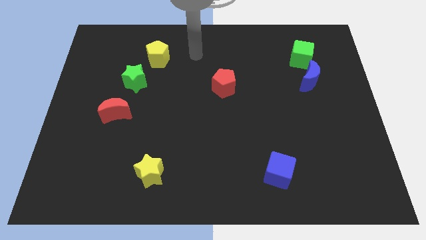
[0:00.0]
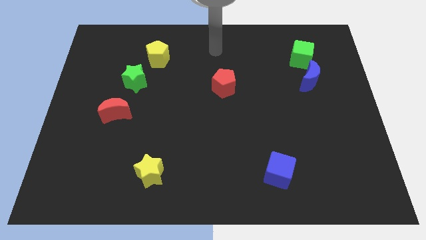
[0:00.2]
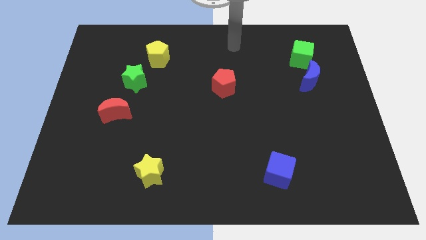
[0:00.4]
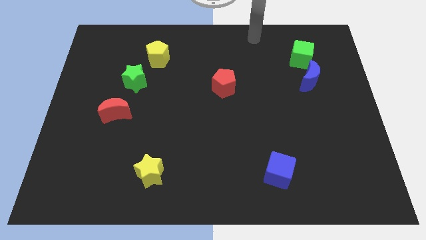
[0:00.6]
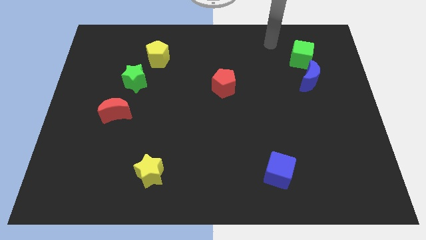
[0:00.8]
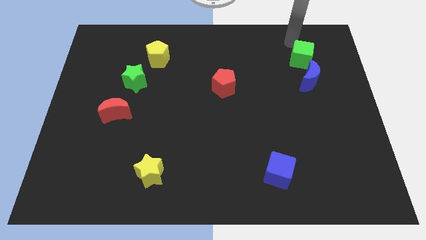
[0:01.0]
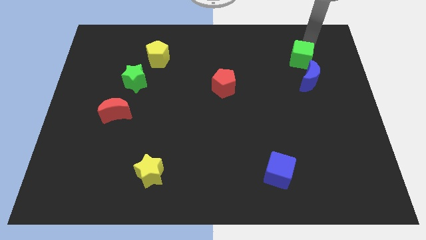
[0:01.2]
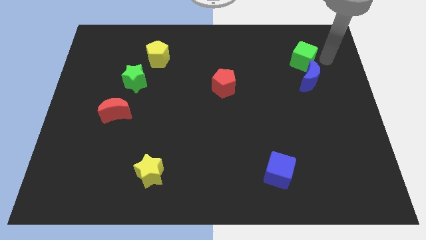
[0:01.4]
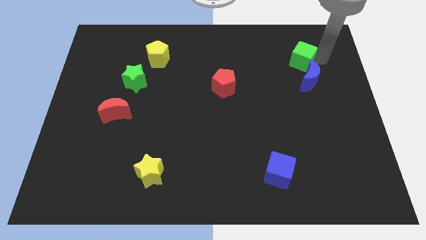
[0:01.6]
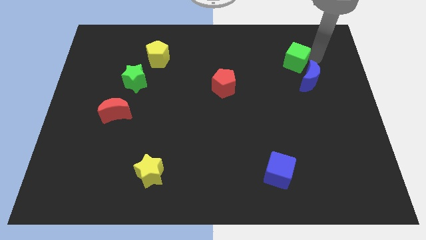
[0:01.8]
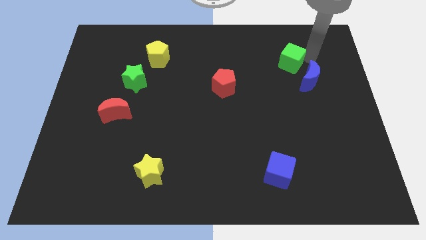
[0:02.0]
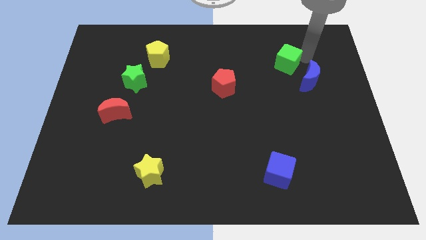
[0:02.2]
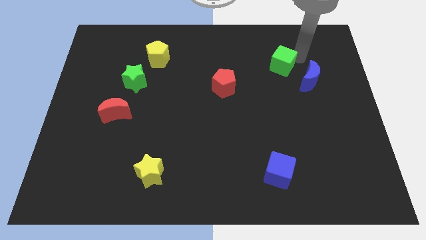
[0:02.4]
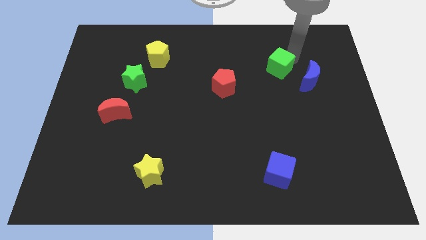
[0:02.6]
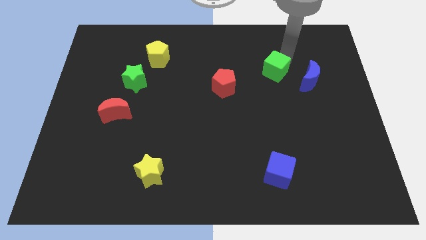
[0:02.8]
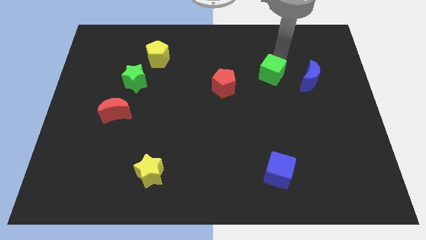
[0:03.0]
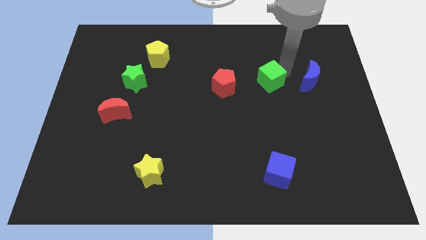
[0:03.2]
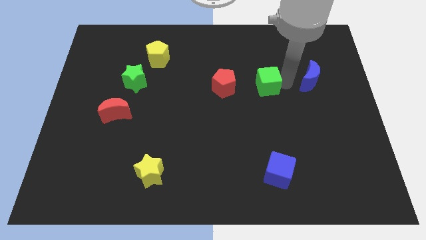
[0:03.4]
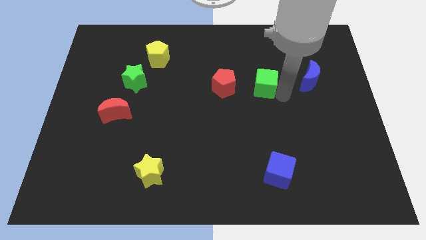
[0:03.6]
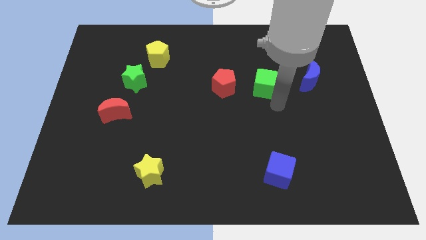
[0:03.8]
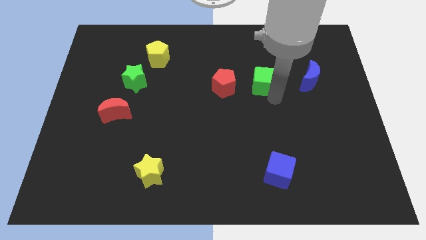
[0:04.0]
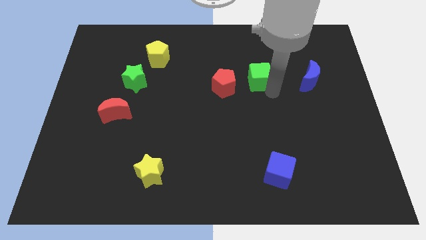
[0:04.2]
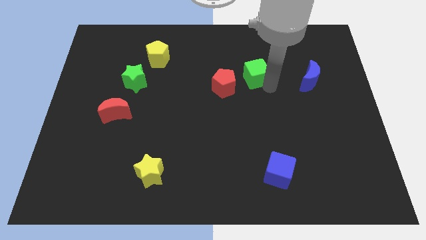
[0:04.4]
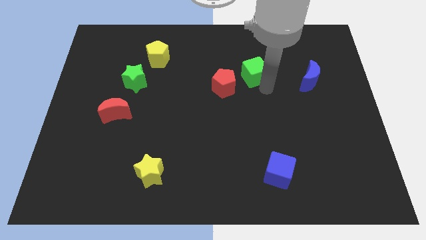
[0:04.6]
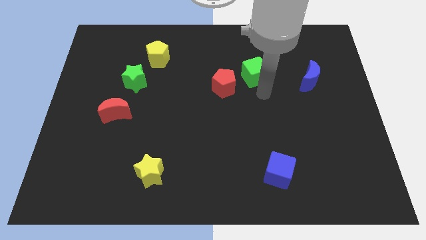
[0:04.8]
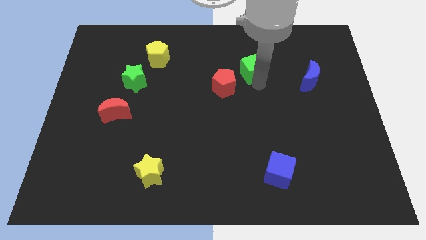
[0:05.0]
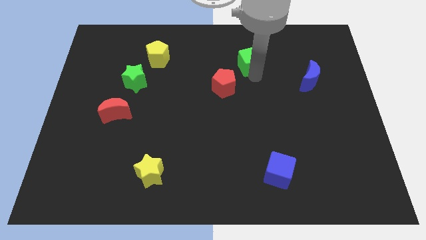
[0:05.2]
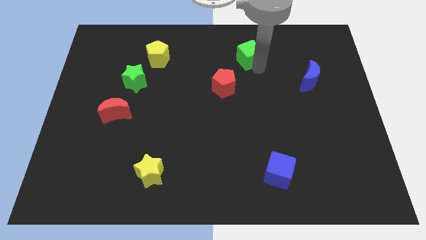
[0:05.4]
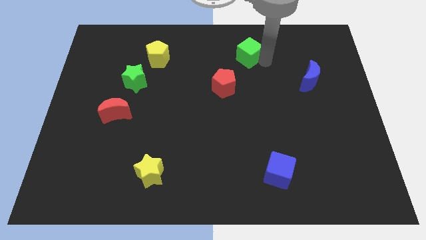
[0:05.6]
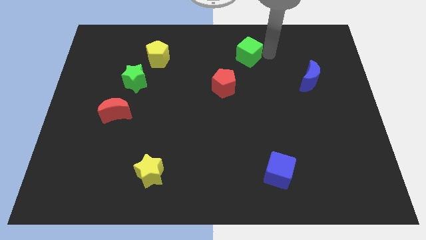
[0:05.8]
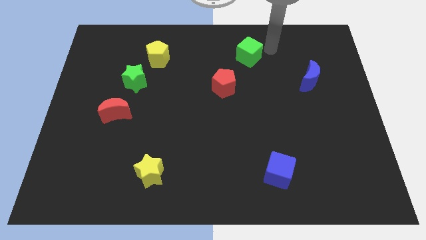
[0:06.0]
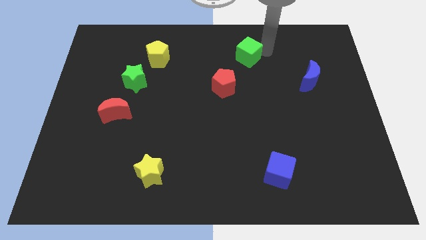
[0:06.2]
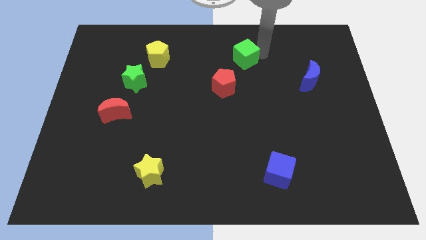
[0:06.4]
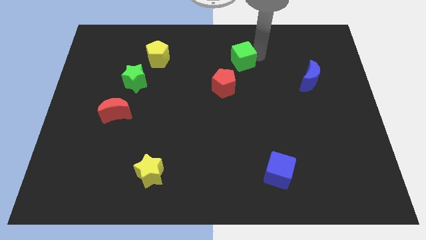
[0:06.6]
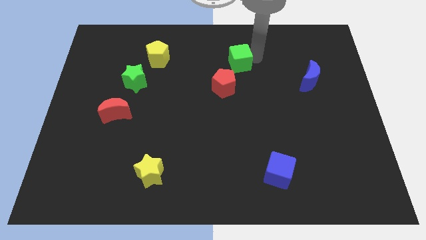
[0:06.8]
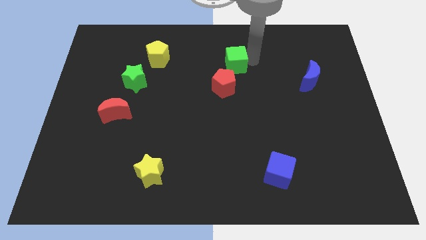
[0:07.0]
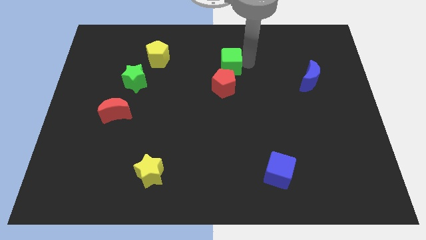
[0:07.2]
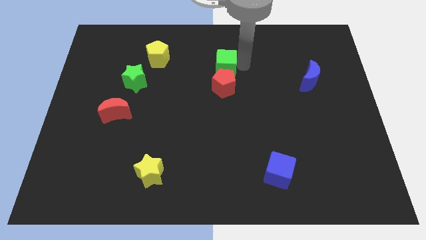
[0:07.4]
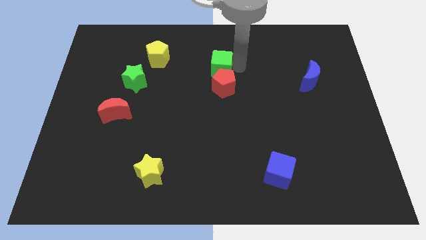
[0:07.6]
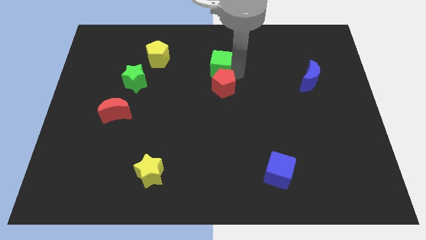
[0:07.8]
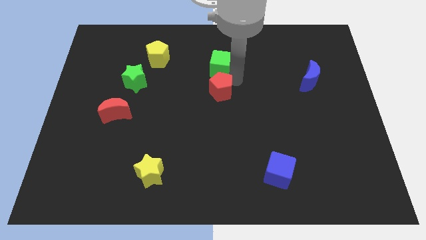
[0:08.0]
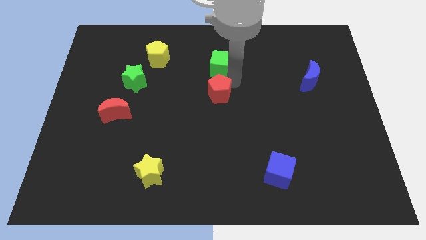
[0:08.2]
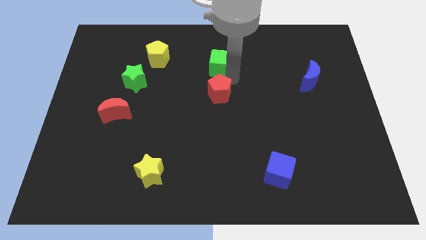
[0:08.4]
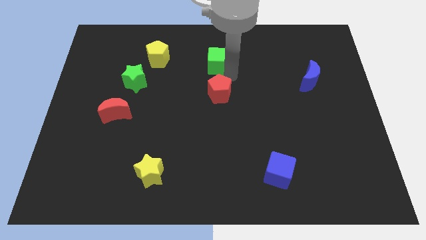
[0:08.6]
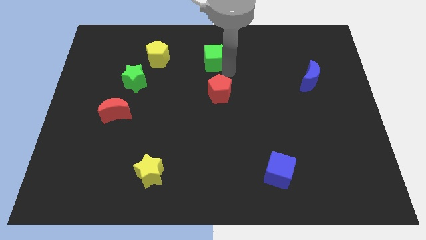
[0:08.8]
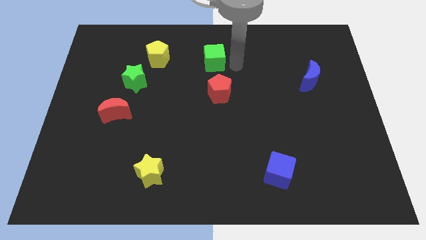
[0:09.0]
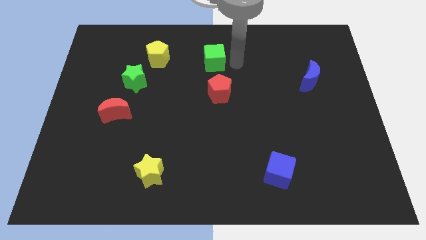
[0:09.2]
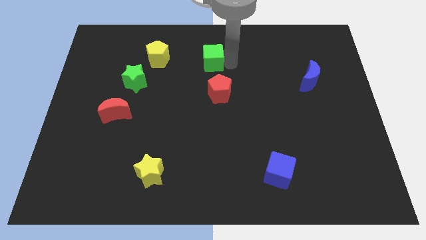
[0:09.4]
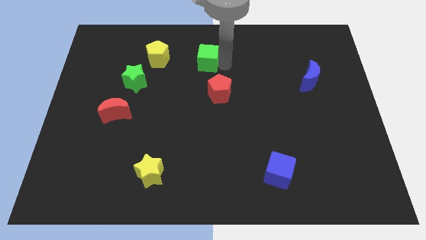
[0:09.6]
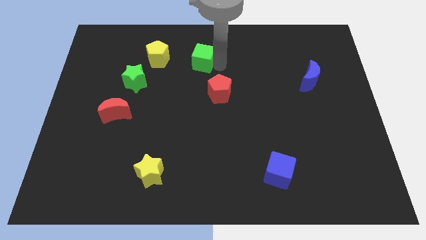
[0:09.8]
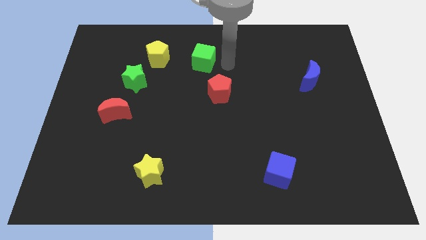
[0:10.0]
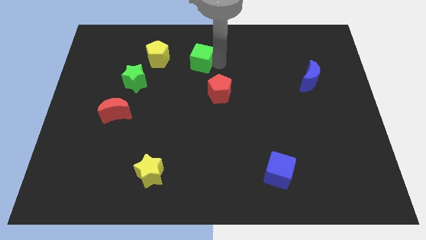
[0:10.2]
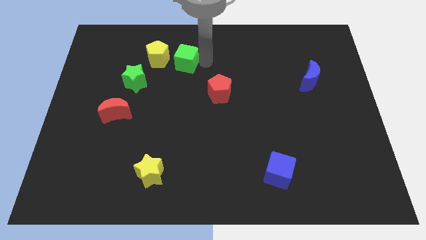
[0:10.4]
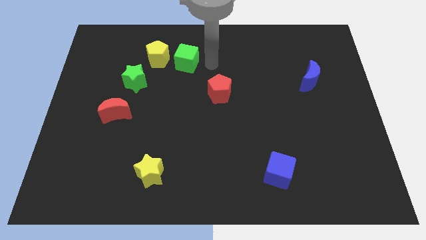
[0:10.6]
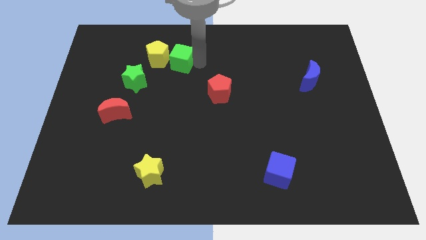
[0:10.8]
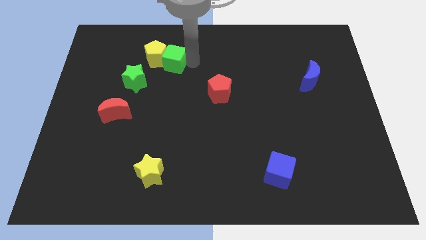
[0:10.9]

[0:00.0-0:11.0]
push the green cube close to the yellow pentagon

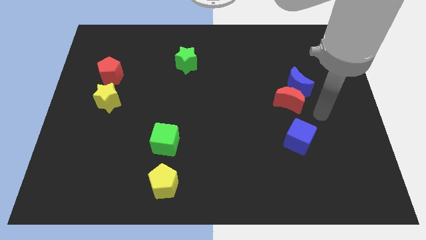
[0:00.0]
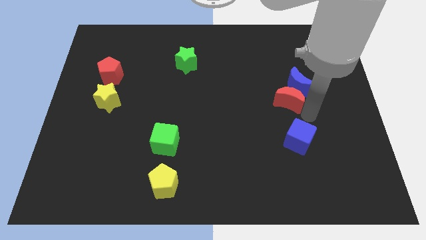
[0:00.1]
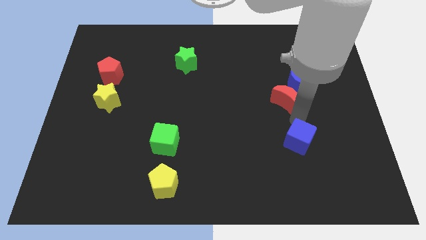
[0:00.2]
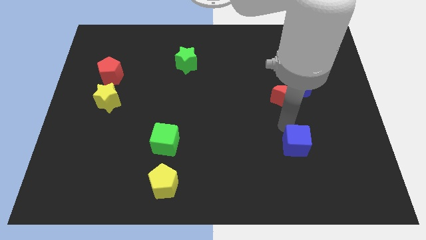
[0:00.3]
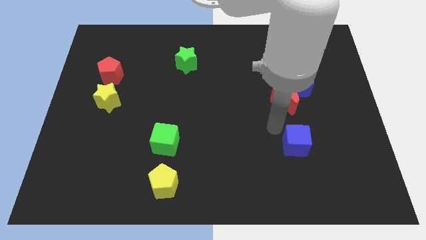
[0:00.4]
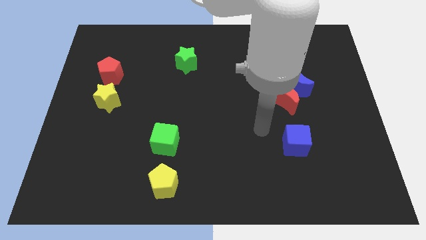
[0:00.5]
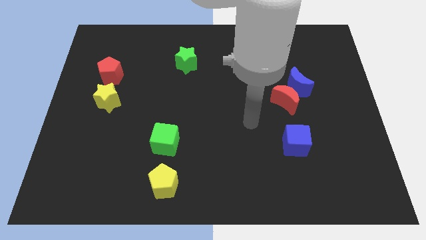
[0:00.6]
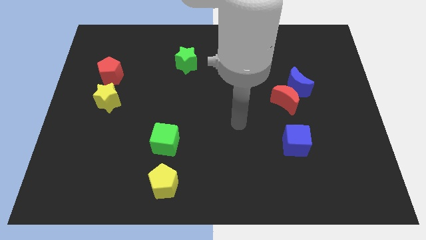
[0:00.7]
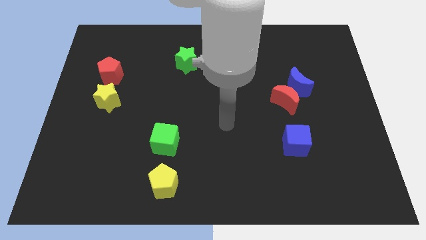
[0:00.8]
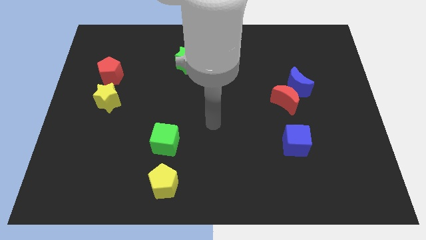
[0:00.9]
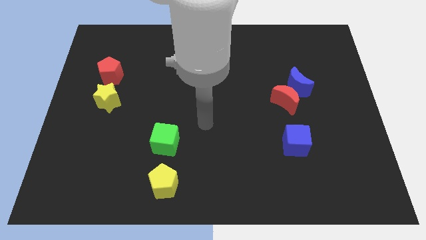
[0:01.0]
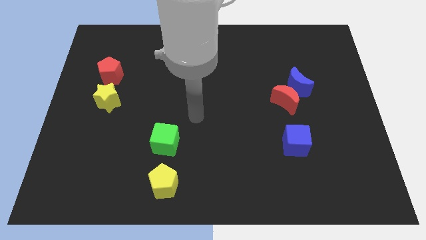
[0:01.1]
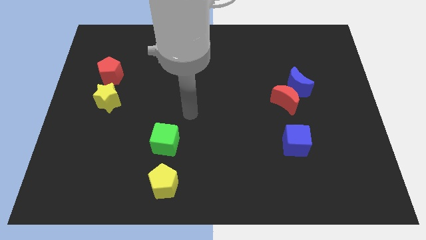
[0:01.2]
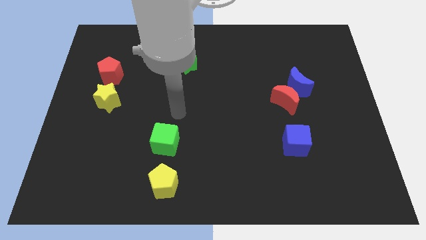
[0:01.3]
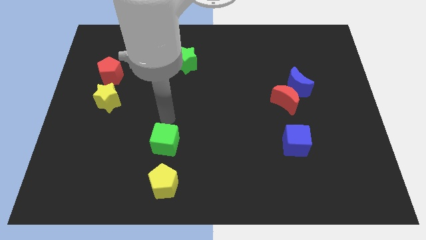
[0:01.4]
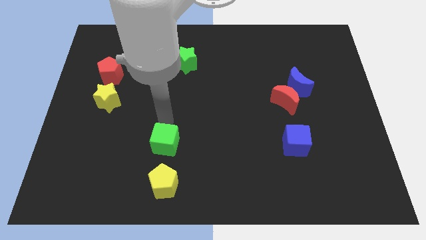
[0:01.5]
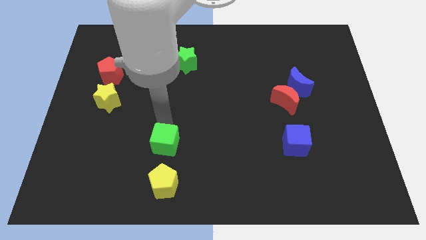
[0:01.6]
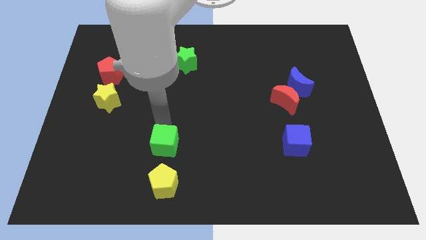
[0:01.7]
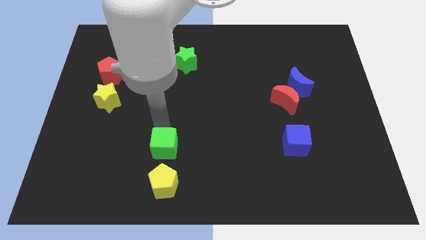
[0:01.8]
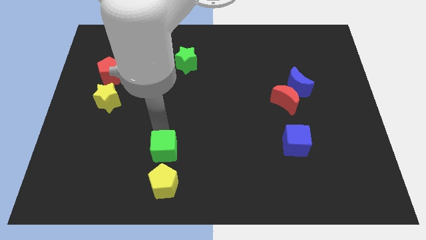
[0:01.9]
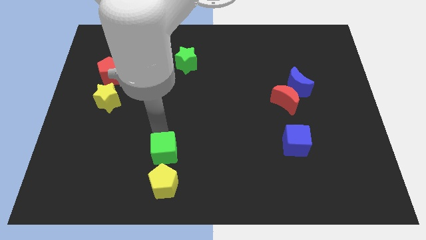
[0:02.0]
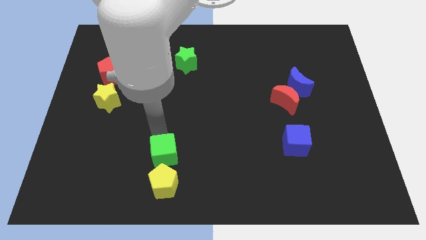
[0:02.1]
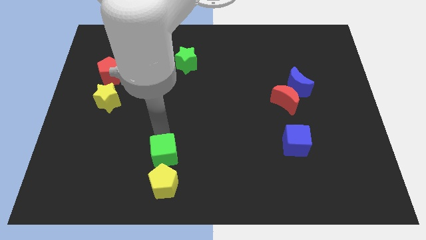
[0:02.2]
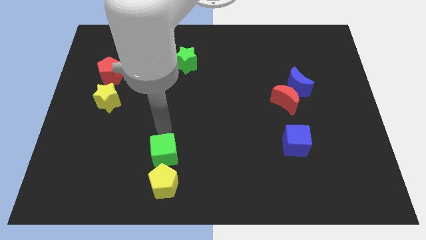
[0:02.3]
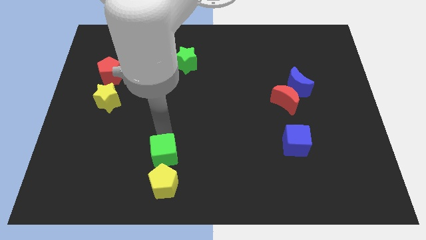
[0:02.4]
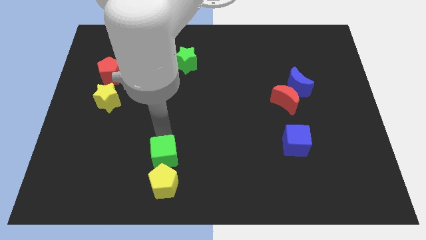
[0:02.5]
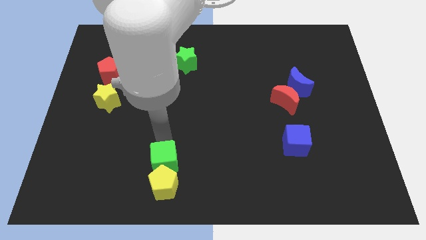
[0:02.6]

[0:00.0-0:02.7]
push the green cube to the yellow pentagon
